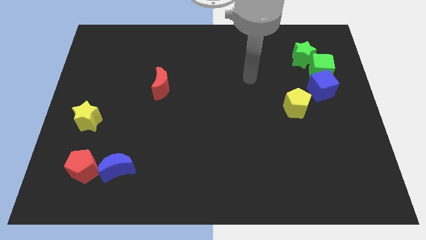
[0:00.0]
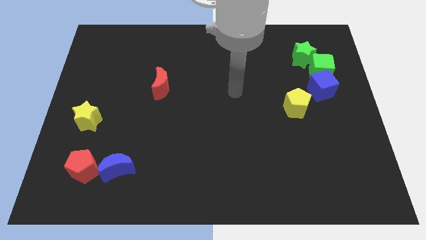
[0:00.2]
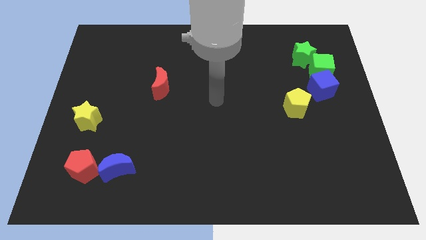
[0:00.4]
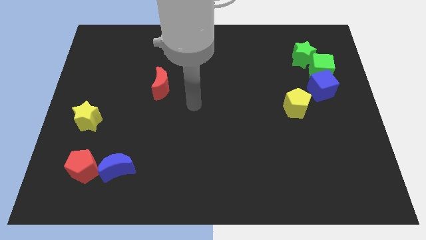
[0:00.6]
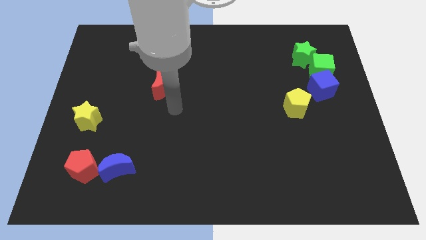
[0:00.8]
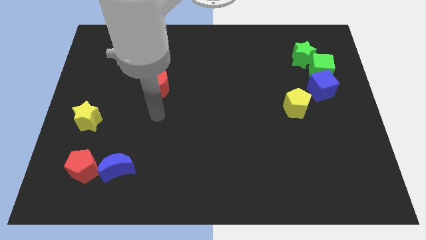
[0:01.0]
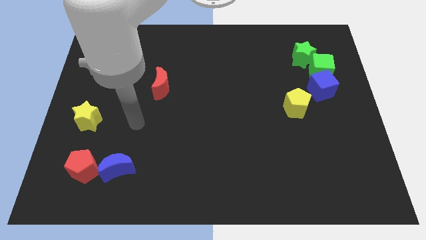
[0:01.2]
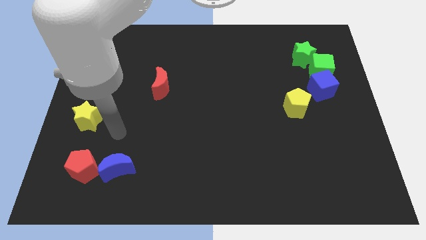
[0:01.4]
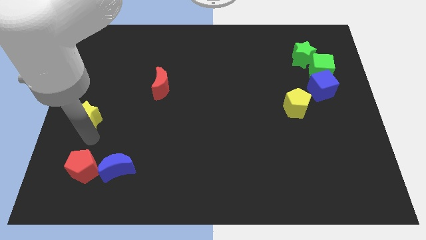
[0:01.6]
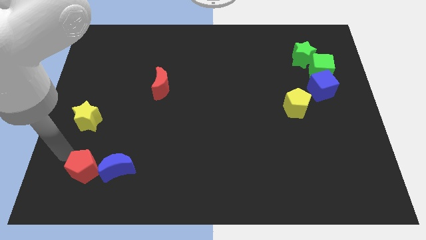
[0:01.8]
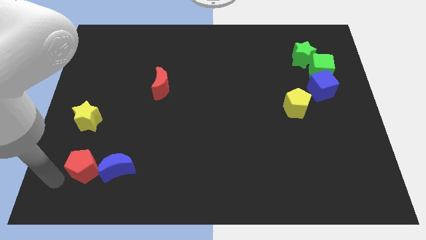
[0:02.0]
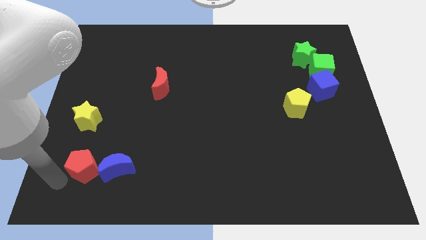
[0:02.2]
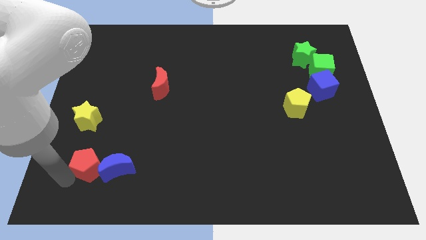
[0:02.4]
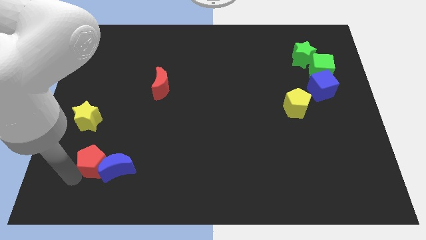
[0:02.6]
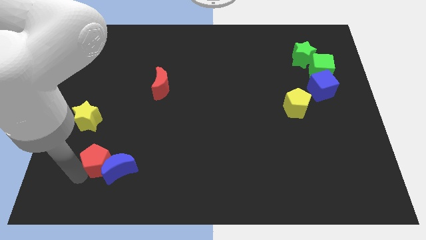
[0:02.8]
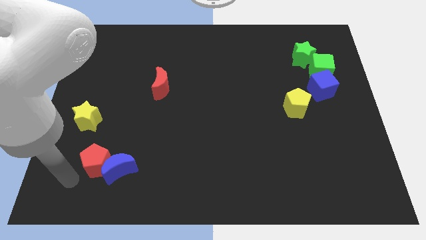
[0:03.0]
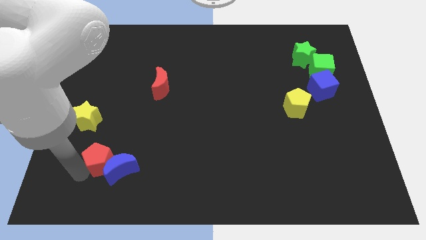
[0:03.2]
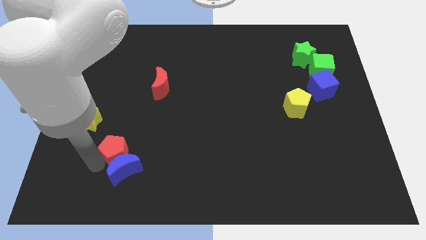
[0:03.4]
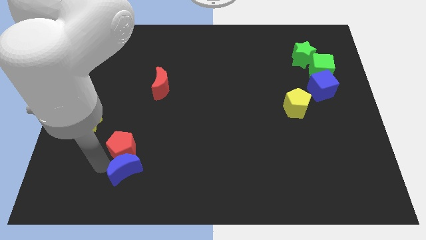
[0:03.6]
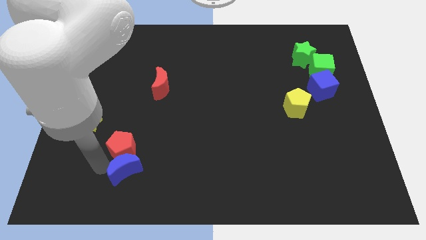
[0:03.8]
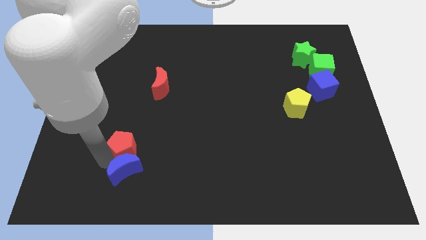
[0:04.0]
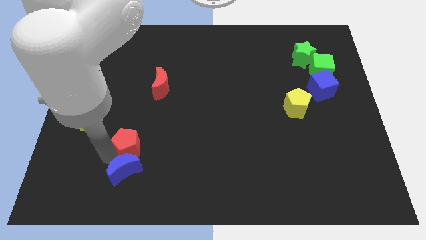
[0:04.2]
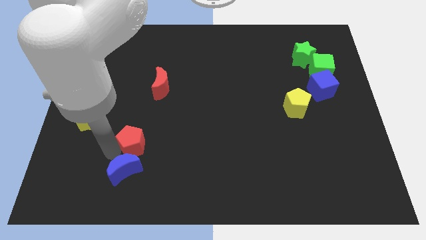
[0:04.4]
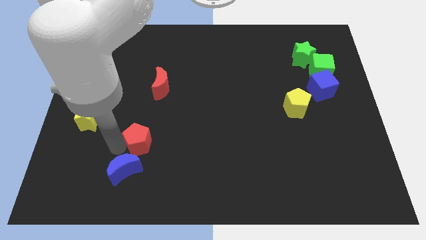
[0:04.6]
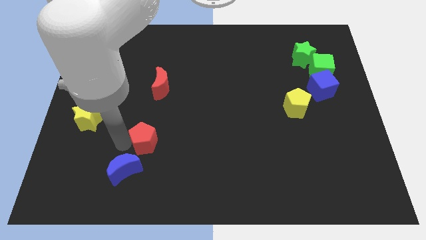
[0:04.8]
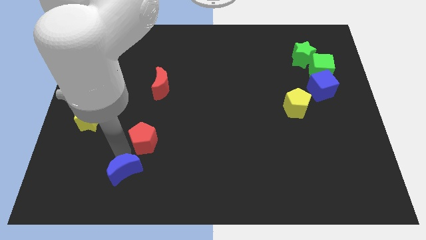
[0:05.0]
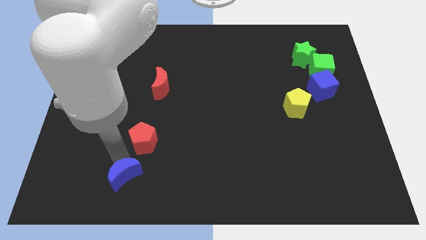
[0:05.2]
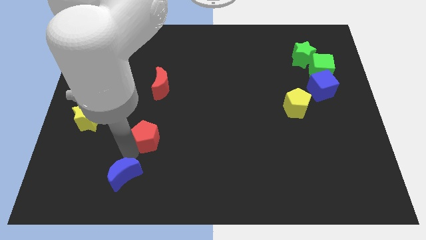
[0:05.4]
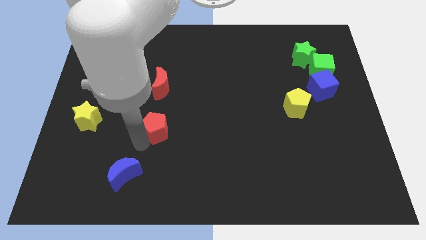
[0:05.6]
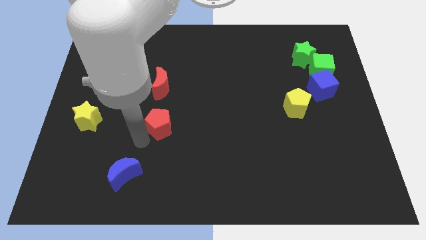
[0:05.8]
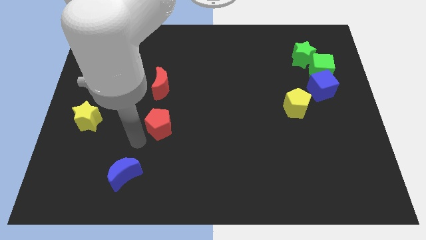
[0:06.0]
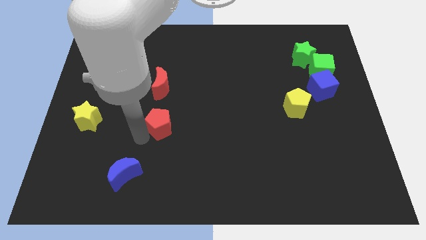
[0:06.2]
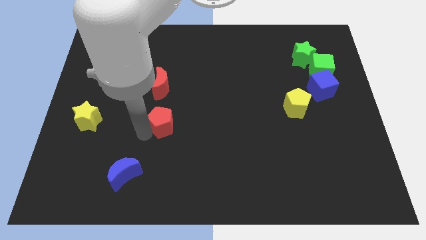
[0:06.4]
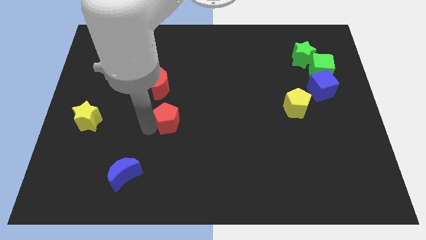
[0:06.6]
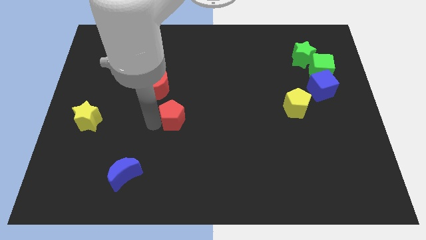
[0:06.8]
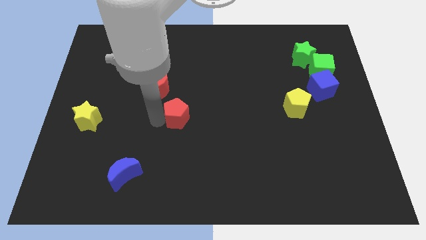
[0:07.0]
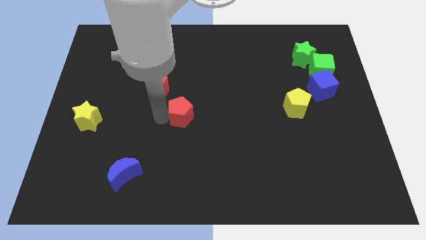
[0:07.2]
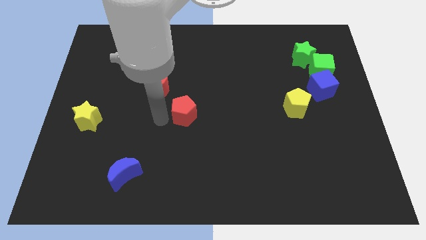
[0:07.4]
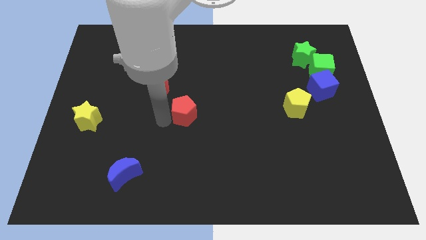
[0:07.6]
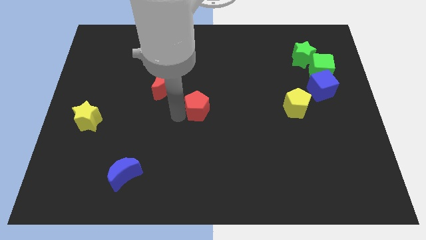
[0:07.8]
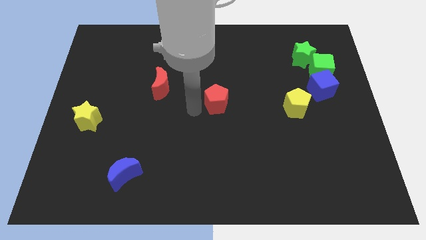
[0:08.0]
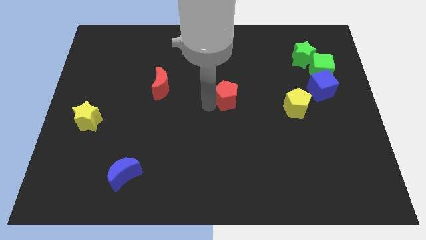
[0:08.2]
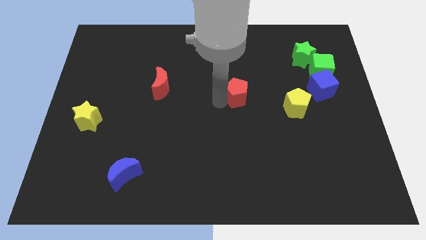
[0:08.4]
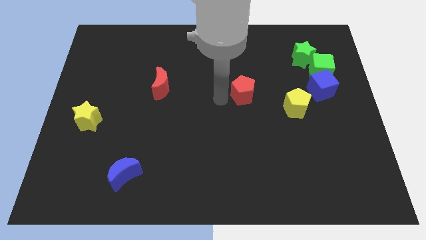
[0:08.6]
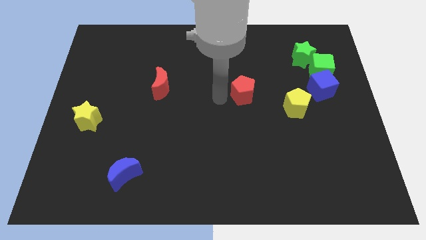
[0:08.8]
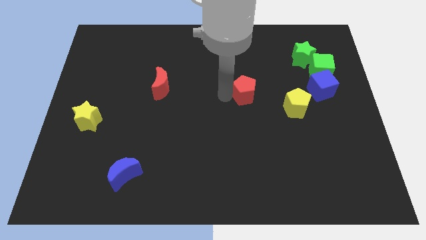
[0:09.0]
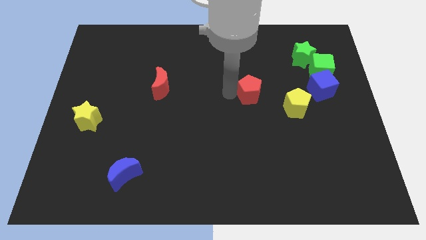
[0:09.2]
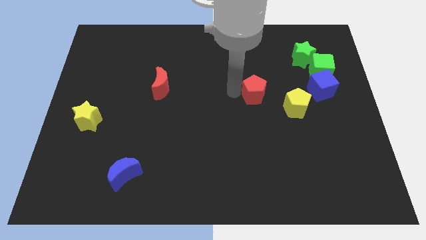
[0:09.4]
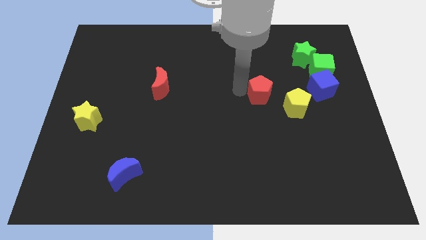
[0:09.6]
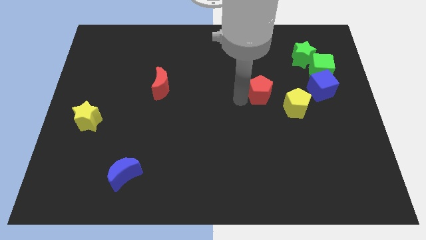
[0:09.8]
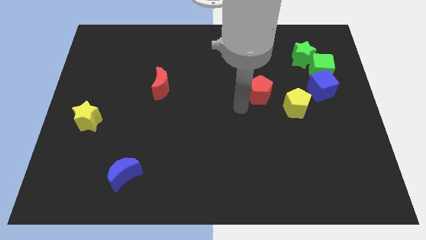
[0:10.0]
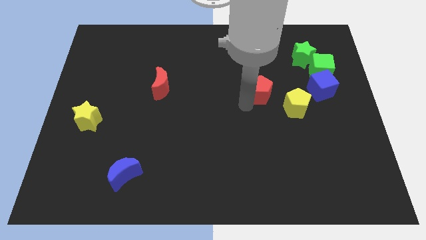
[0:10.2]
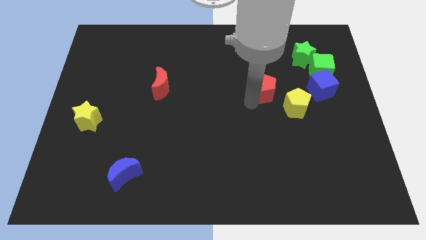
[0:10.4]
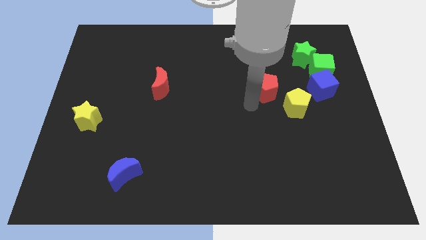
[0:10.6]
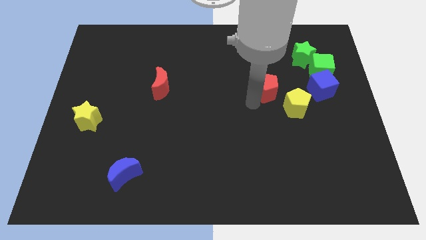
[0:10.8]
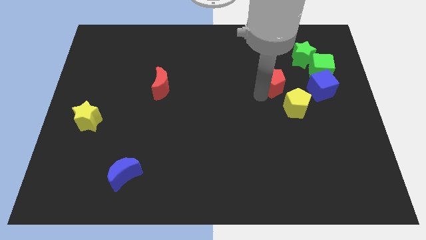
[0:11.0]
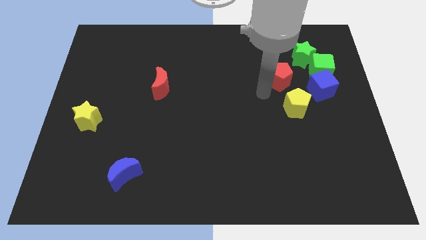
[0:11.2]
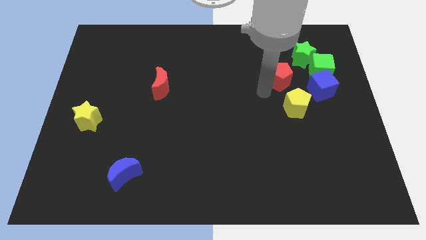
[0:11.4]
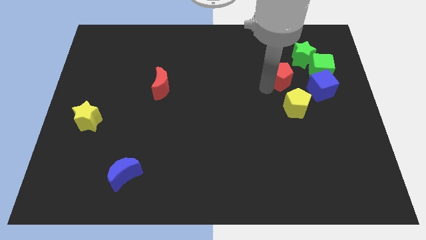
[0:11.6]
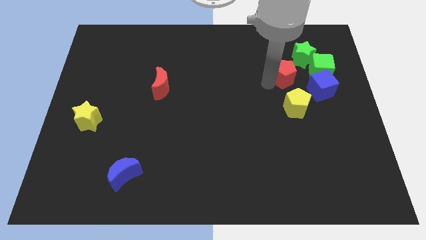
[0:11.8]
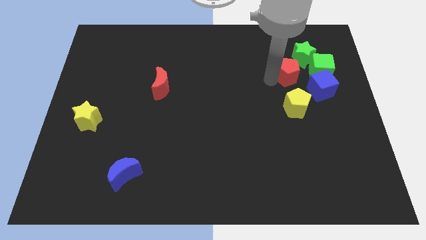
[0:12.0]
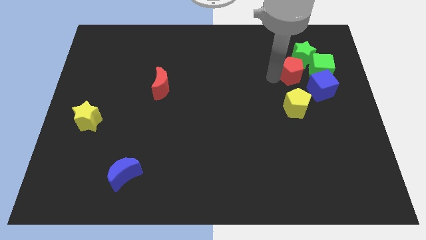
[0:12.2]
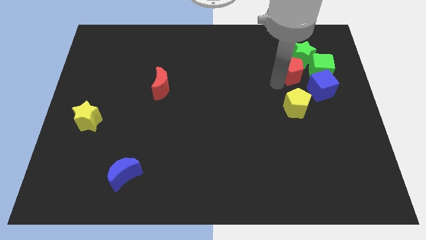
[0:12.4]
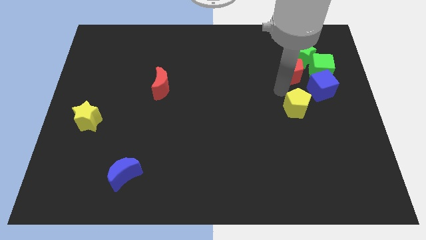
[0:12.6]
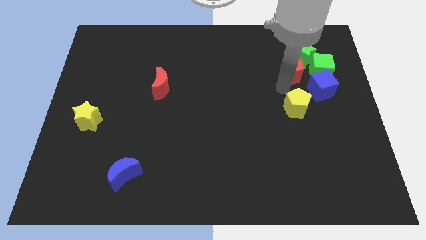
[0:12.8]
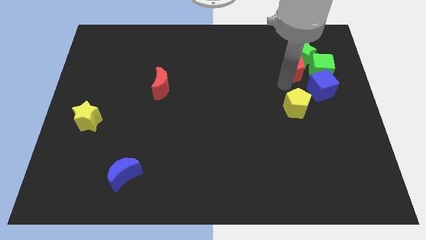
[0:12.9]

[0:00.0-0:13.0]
put the red pentagon next to the green star
